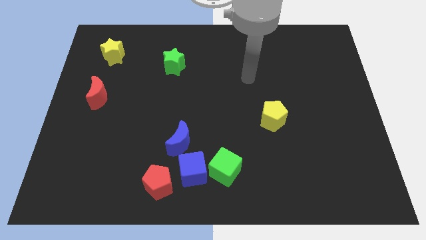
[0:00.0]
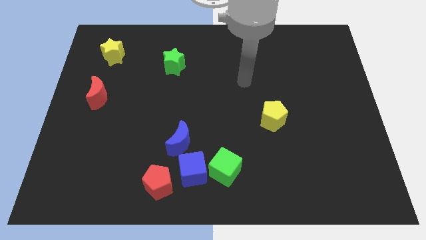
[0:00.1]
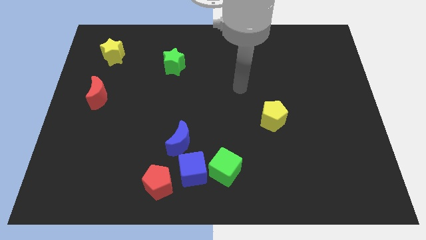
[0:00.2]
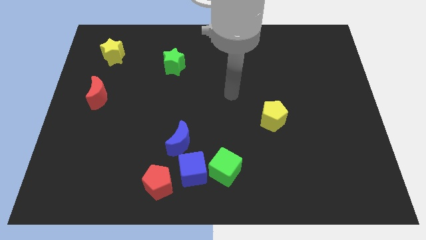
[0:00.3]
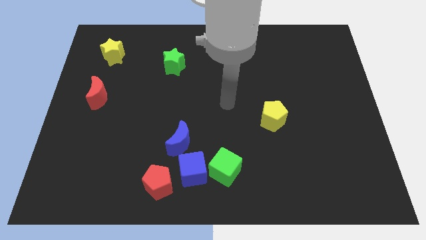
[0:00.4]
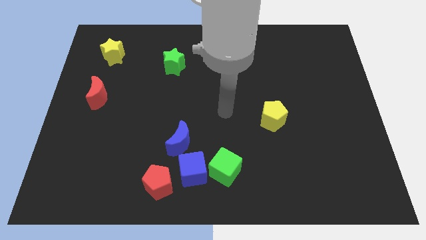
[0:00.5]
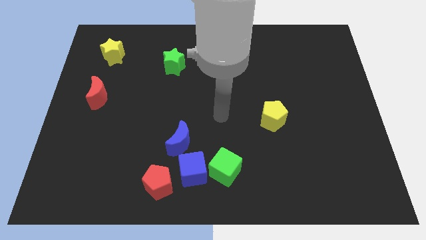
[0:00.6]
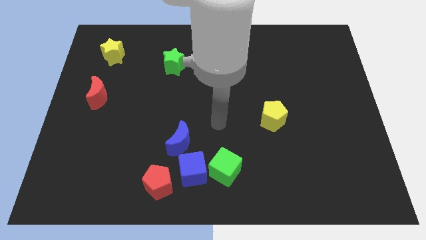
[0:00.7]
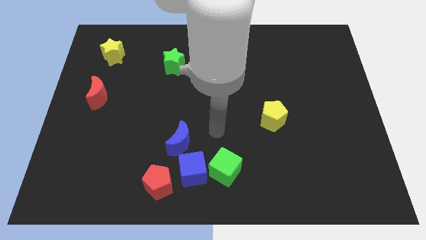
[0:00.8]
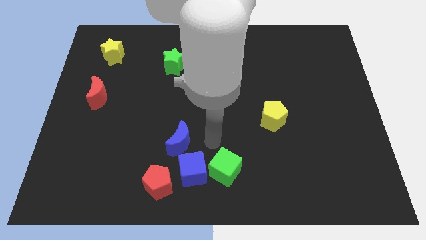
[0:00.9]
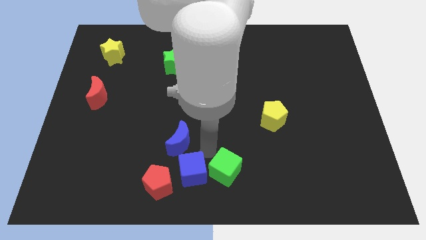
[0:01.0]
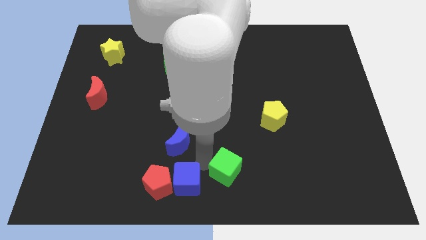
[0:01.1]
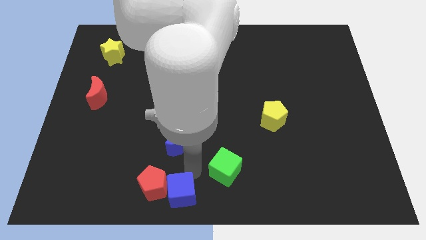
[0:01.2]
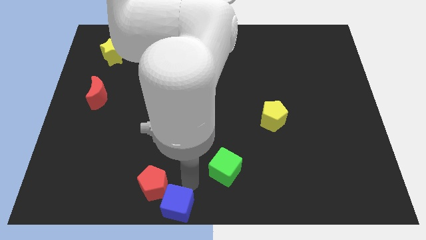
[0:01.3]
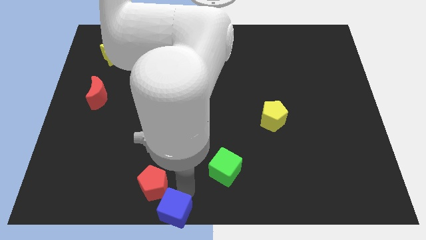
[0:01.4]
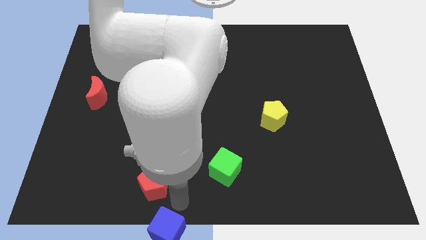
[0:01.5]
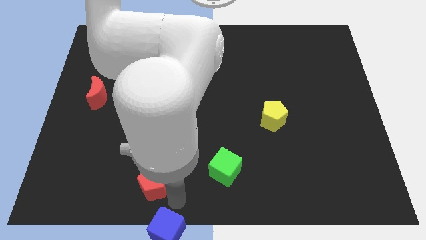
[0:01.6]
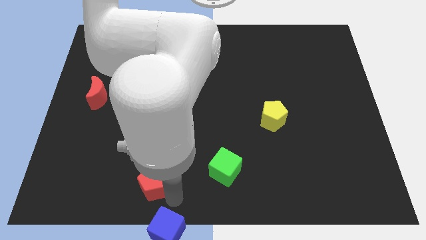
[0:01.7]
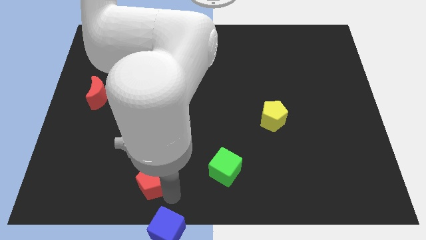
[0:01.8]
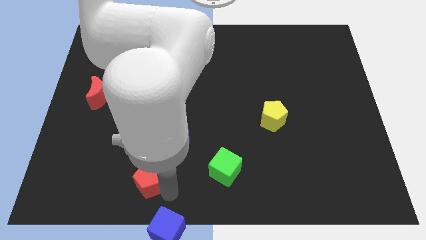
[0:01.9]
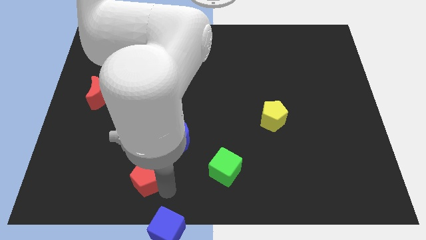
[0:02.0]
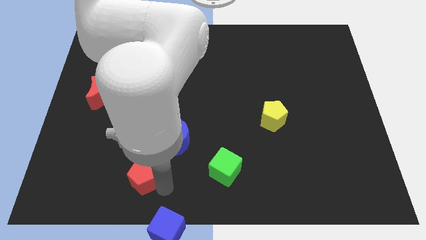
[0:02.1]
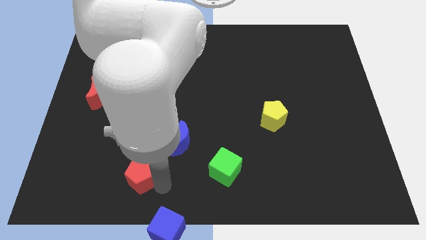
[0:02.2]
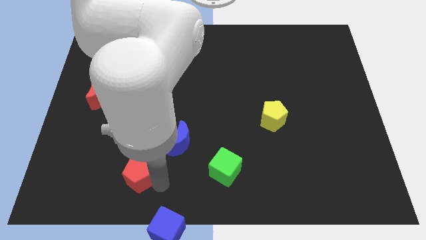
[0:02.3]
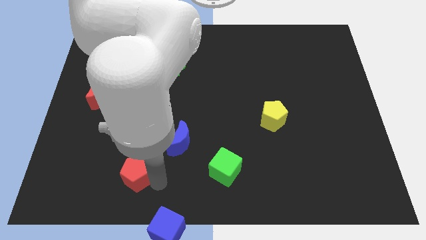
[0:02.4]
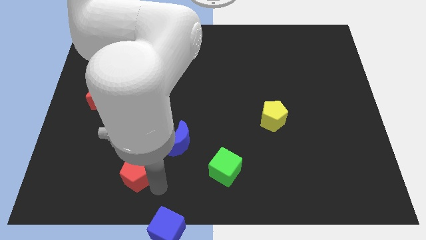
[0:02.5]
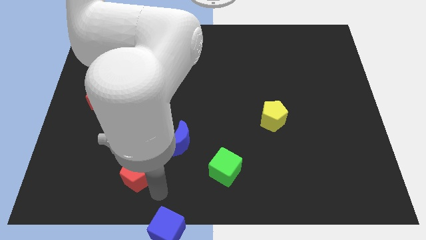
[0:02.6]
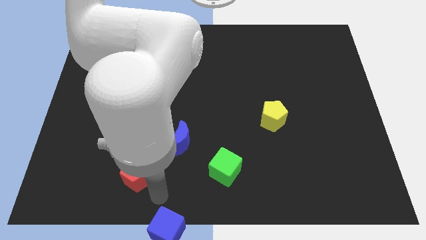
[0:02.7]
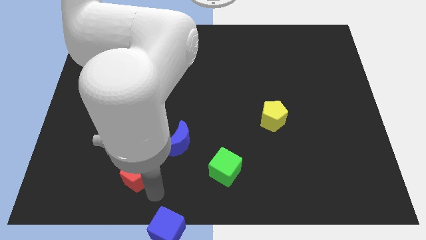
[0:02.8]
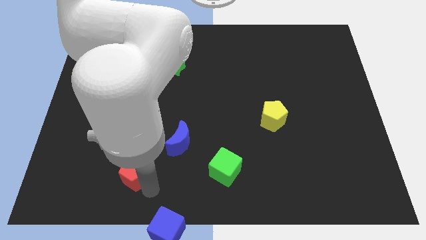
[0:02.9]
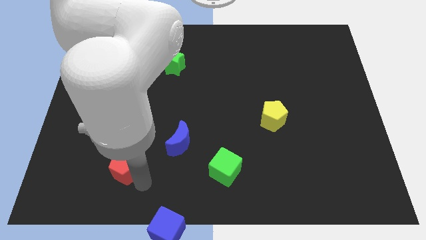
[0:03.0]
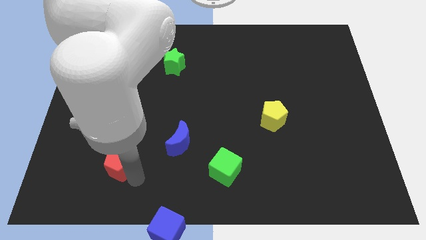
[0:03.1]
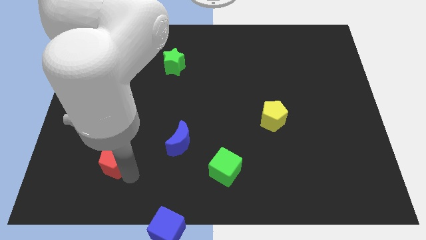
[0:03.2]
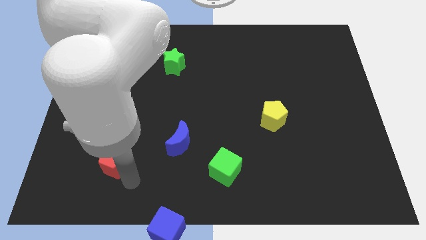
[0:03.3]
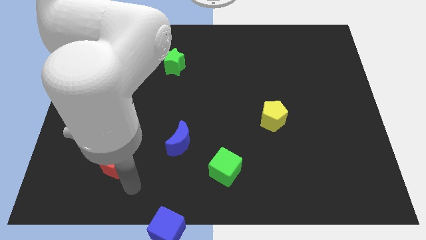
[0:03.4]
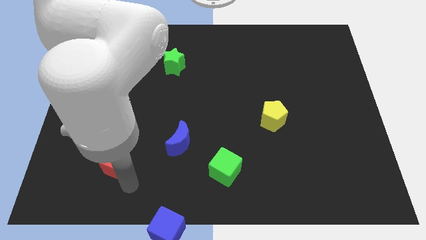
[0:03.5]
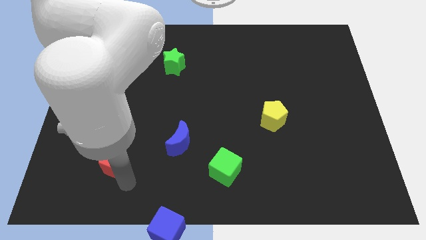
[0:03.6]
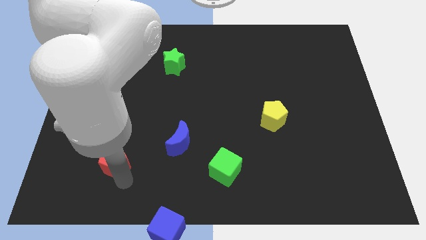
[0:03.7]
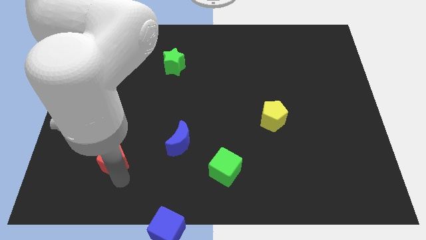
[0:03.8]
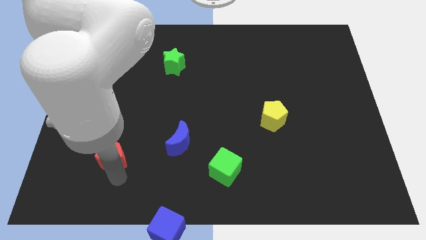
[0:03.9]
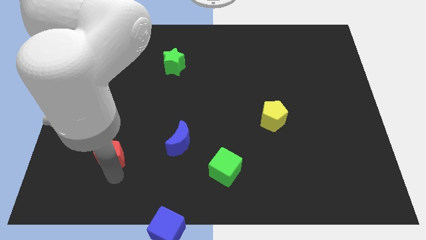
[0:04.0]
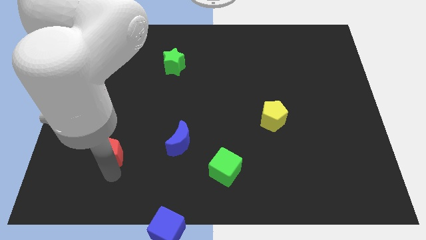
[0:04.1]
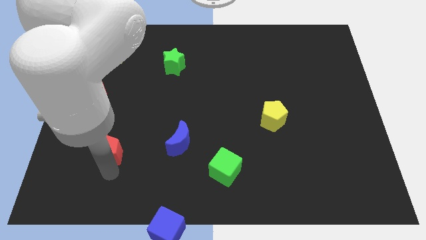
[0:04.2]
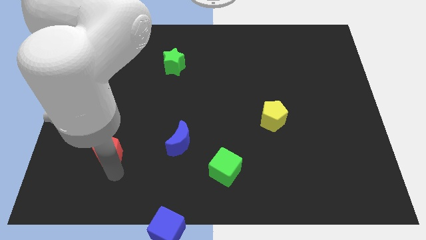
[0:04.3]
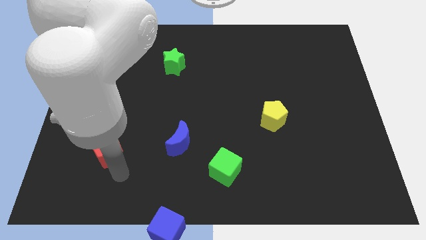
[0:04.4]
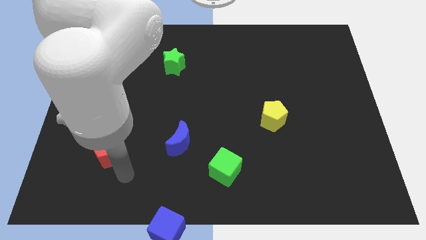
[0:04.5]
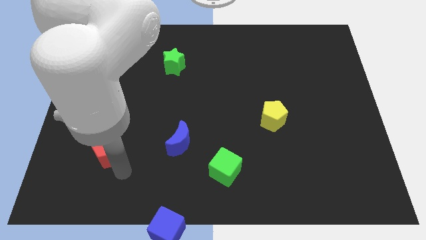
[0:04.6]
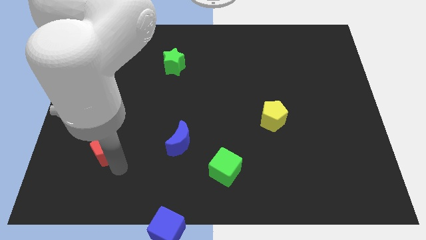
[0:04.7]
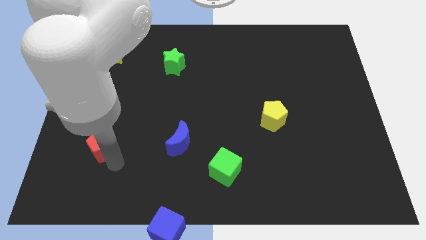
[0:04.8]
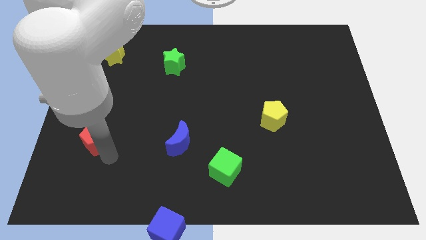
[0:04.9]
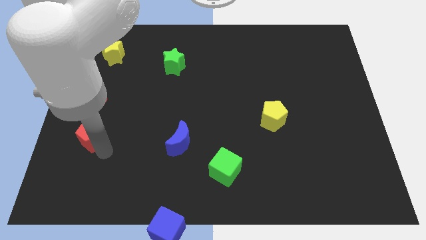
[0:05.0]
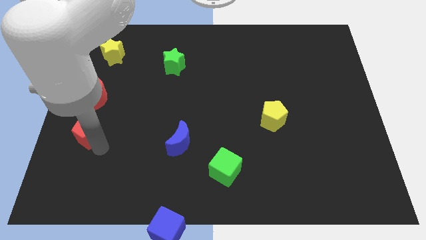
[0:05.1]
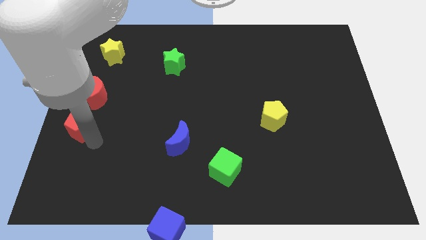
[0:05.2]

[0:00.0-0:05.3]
put the red pentagon to the left side of the board

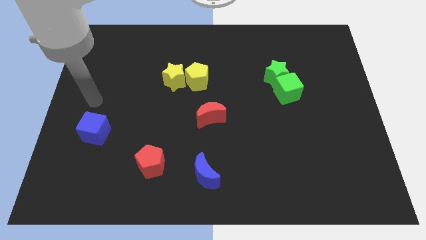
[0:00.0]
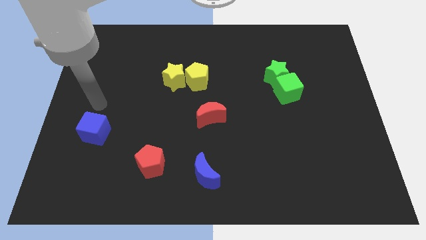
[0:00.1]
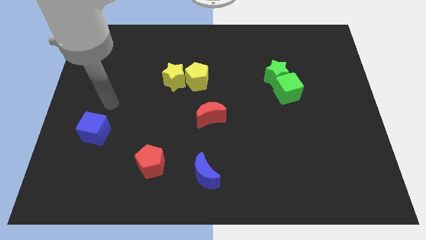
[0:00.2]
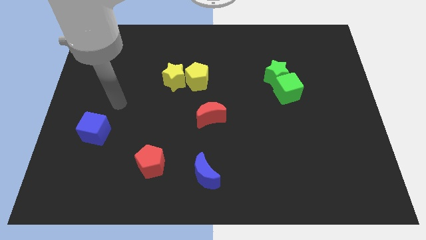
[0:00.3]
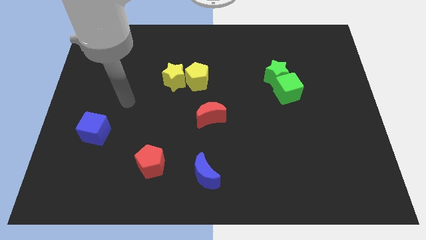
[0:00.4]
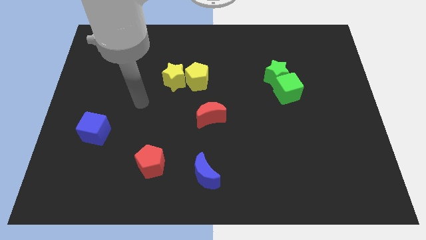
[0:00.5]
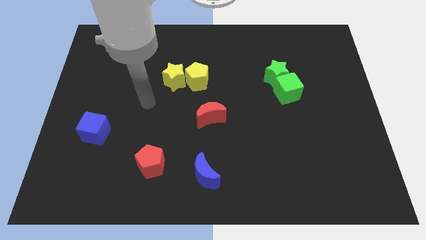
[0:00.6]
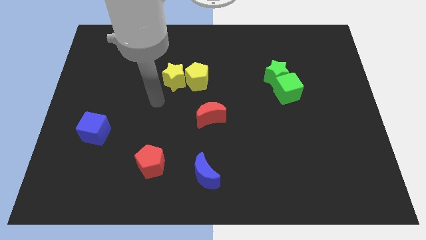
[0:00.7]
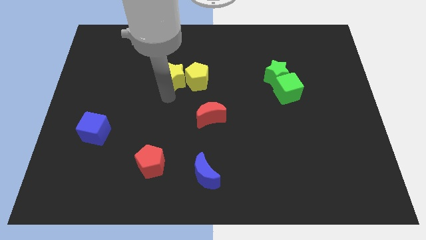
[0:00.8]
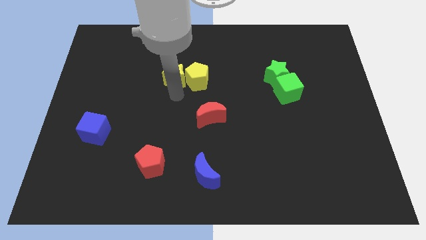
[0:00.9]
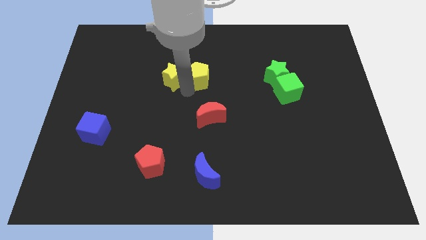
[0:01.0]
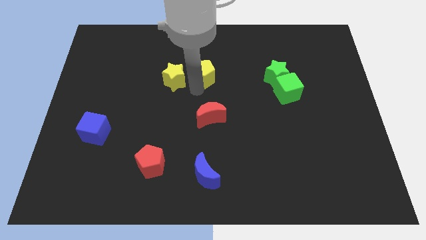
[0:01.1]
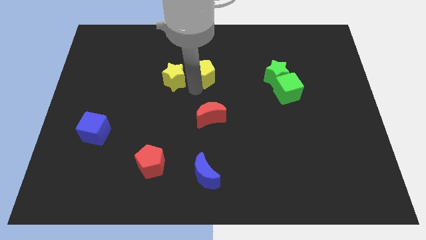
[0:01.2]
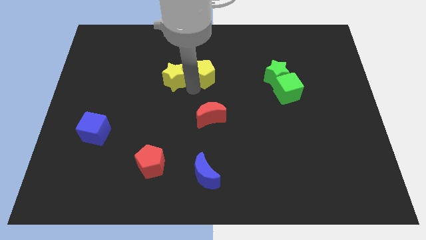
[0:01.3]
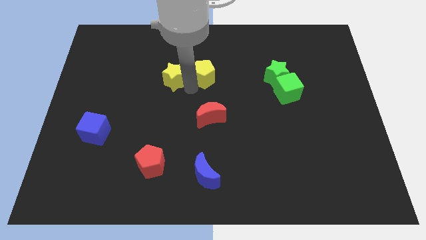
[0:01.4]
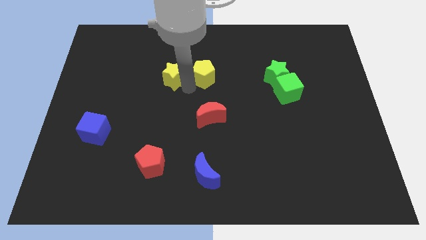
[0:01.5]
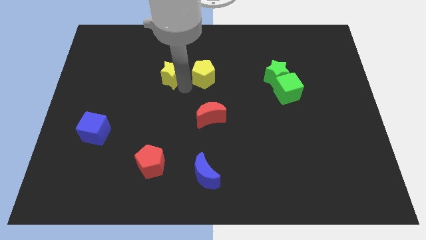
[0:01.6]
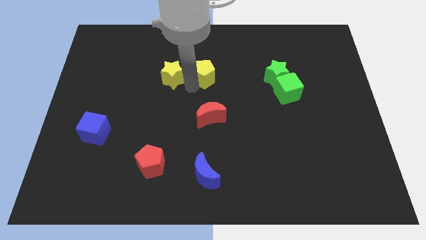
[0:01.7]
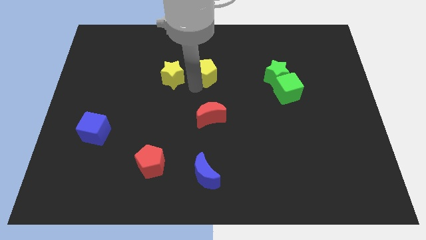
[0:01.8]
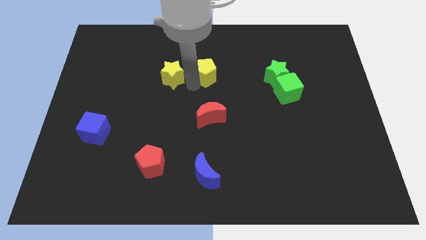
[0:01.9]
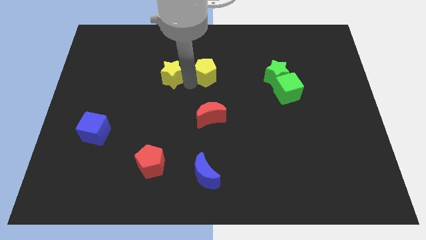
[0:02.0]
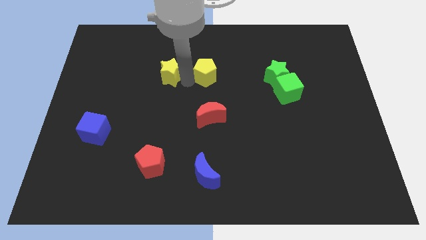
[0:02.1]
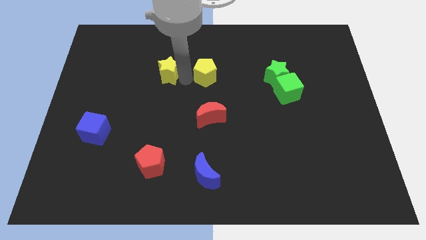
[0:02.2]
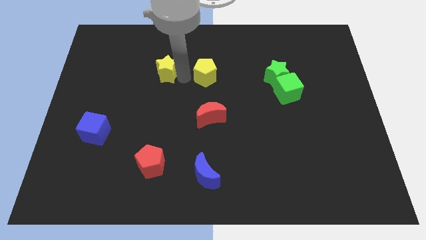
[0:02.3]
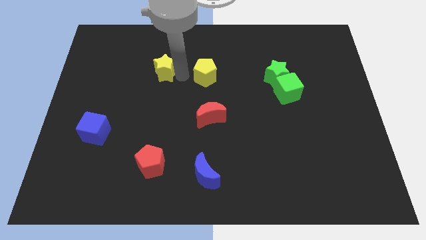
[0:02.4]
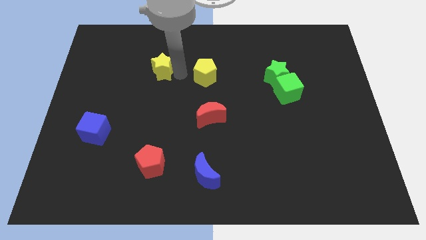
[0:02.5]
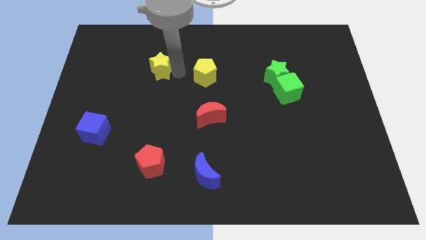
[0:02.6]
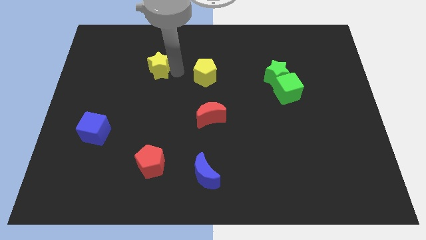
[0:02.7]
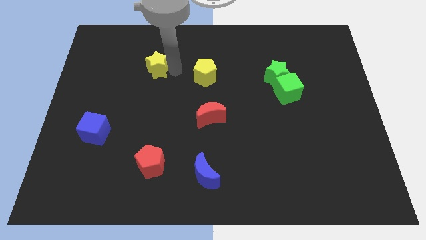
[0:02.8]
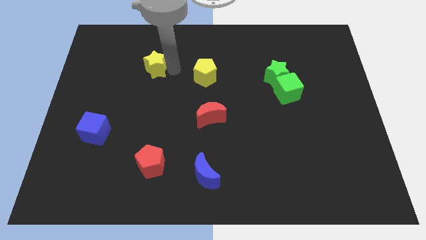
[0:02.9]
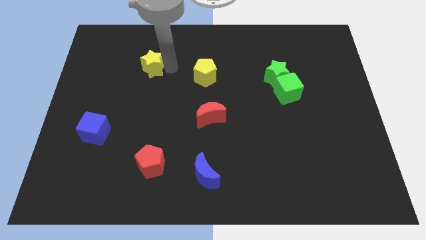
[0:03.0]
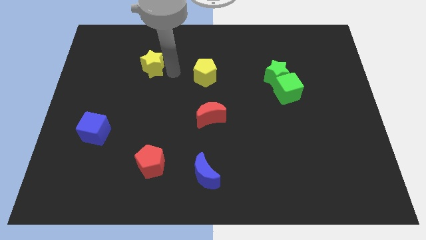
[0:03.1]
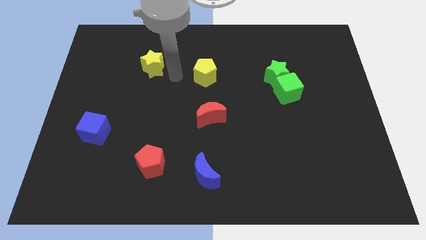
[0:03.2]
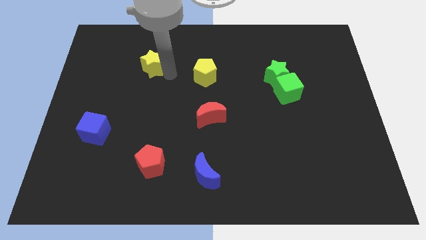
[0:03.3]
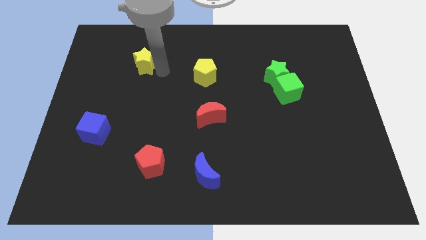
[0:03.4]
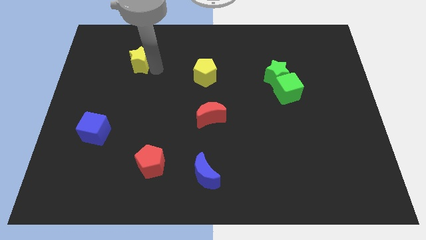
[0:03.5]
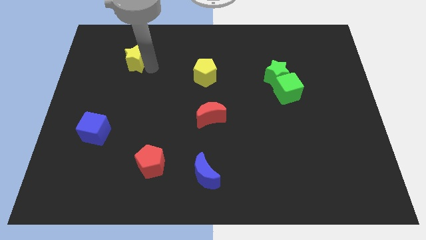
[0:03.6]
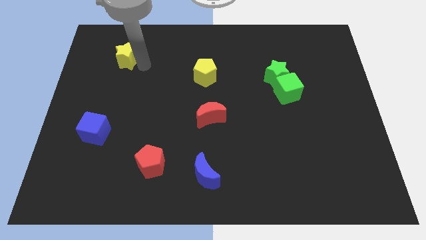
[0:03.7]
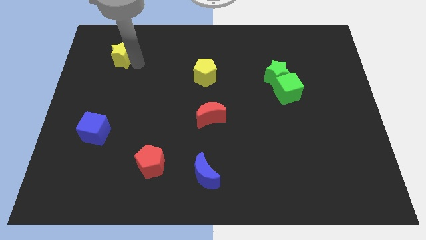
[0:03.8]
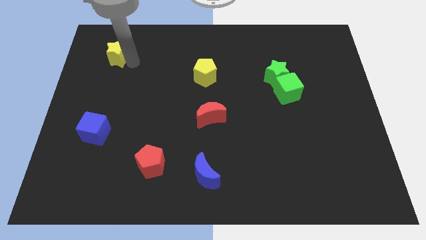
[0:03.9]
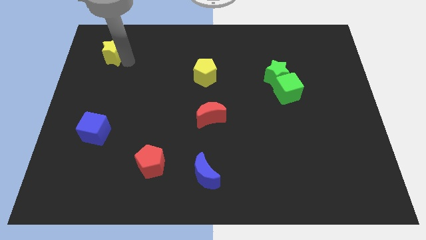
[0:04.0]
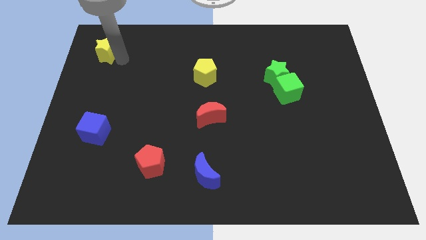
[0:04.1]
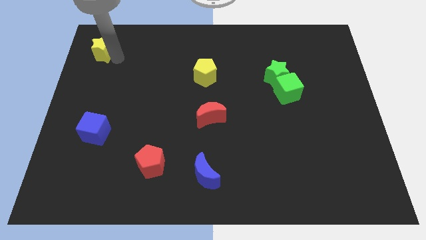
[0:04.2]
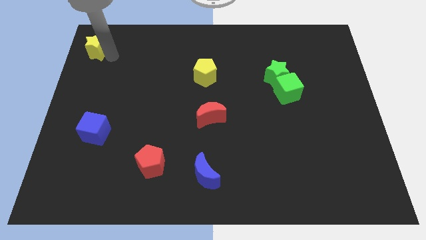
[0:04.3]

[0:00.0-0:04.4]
slide the yellow star to the top left of the board
